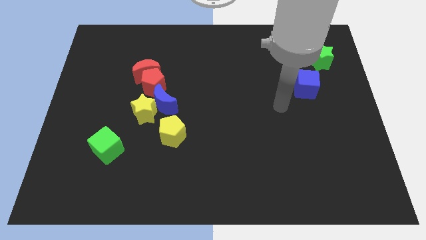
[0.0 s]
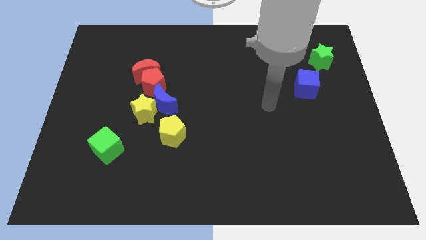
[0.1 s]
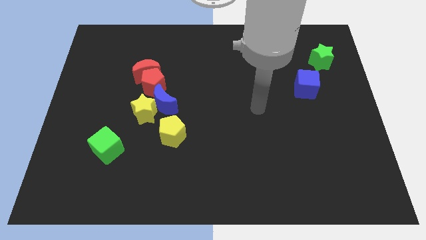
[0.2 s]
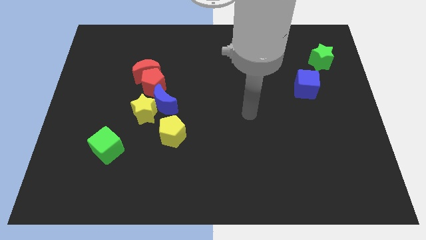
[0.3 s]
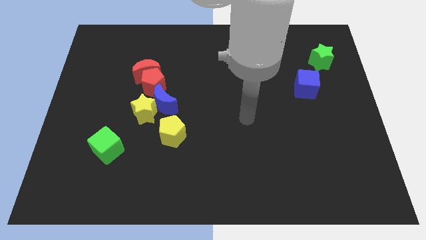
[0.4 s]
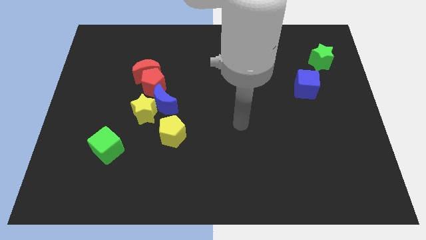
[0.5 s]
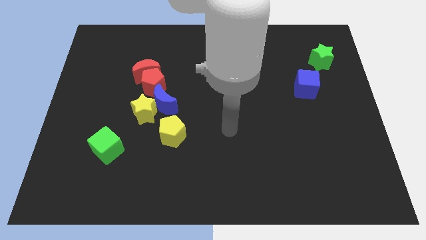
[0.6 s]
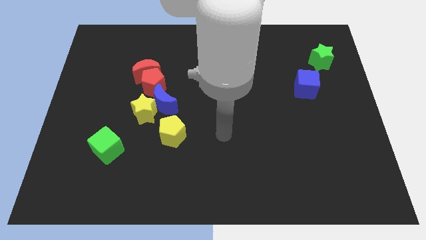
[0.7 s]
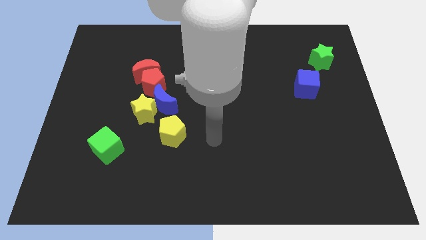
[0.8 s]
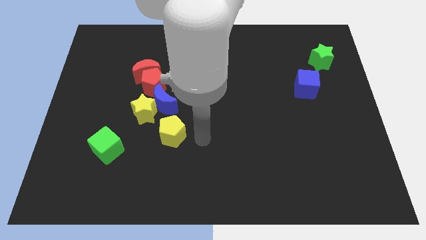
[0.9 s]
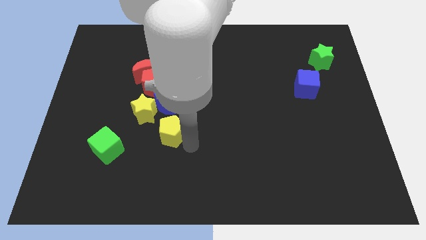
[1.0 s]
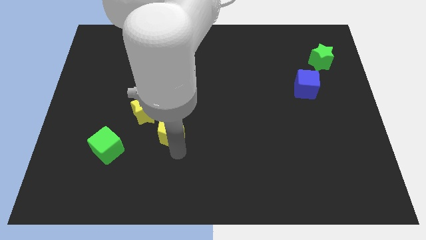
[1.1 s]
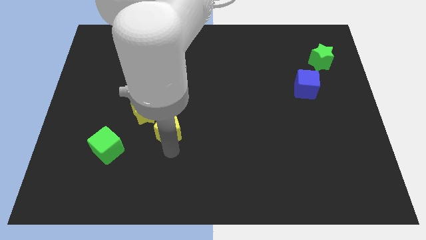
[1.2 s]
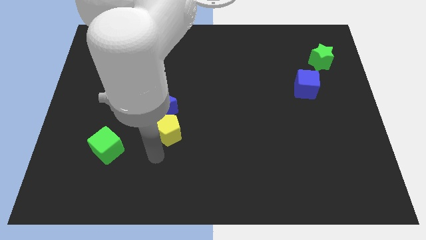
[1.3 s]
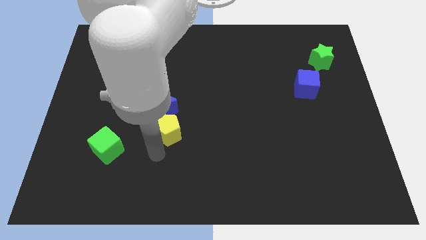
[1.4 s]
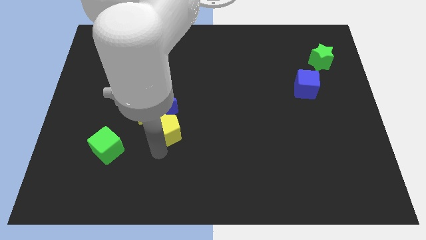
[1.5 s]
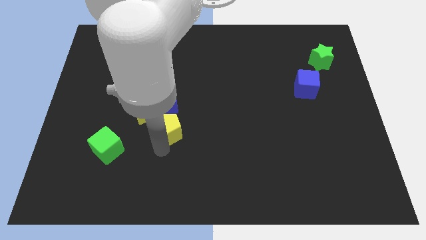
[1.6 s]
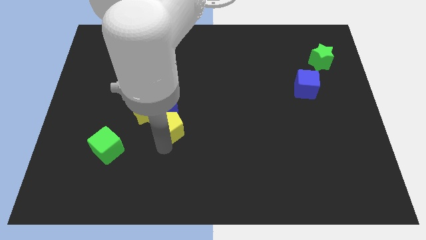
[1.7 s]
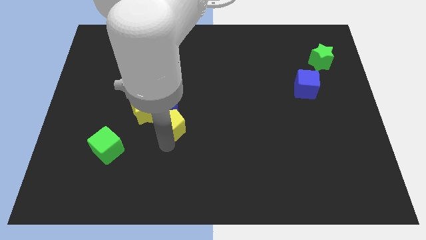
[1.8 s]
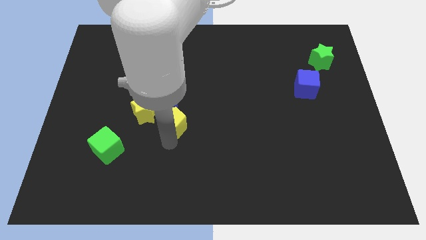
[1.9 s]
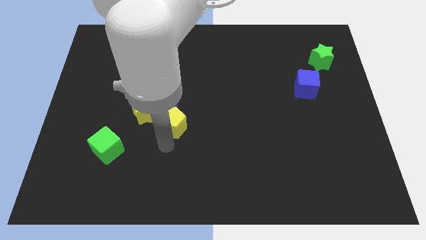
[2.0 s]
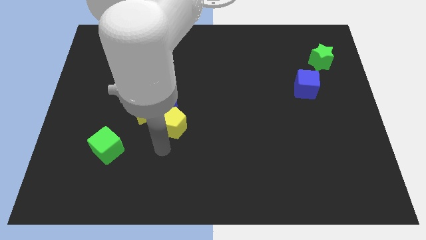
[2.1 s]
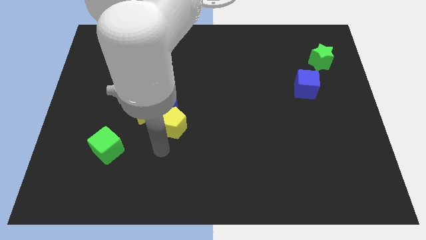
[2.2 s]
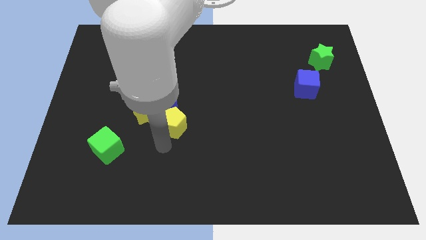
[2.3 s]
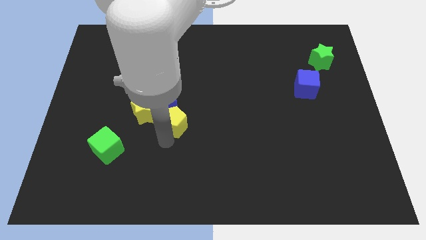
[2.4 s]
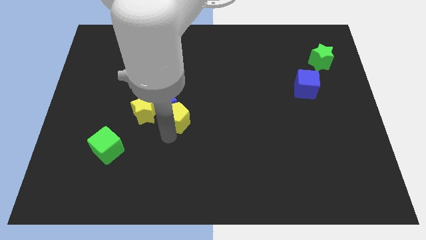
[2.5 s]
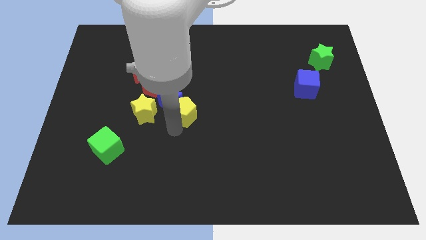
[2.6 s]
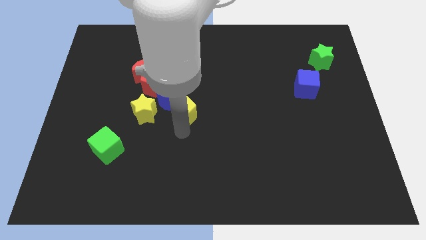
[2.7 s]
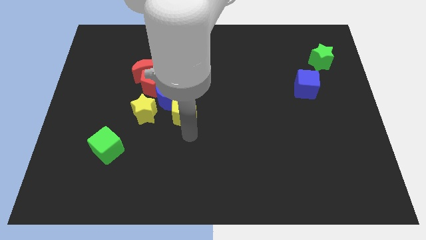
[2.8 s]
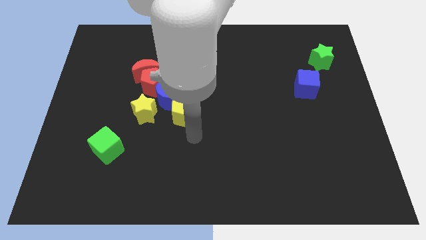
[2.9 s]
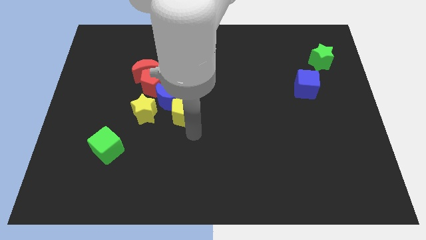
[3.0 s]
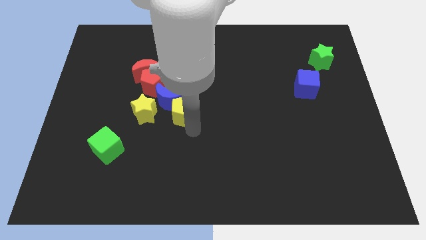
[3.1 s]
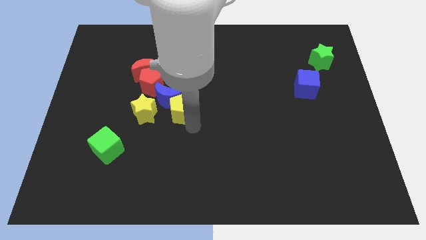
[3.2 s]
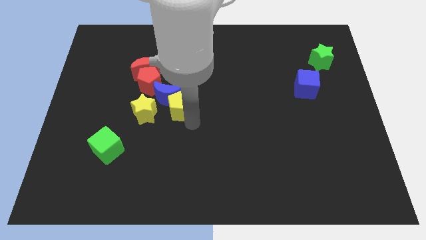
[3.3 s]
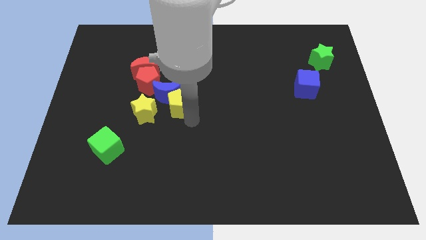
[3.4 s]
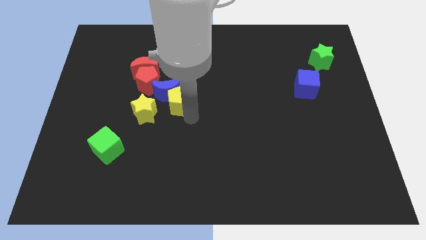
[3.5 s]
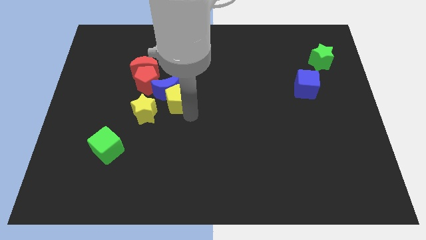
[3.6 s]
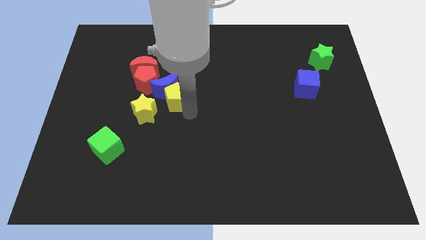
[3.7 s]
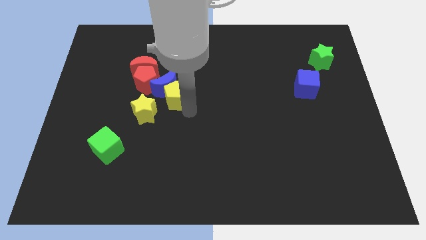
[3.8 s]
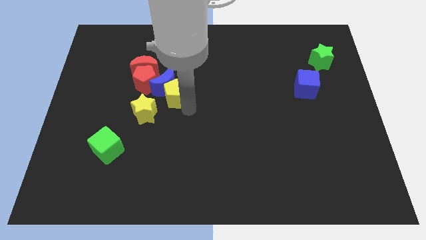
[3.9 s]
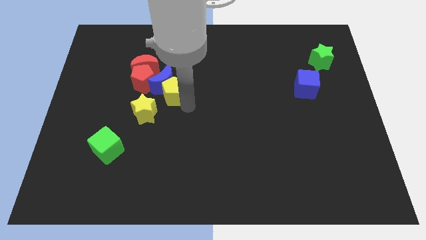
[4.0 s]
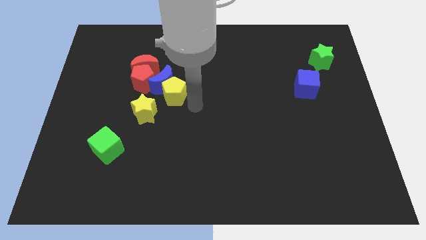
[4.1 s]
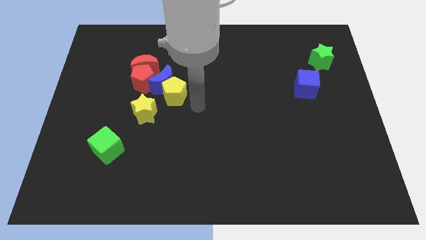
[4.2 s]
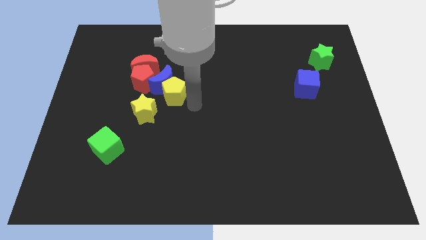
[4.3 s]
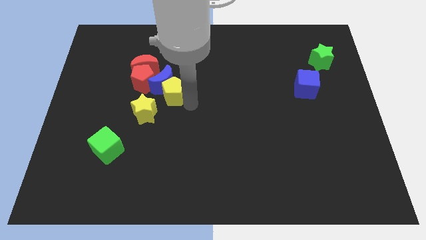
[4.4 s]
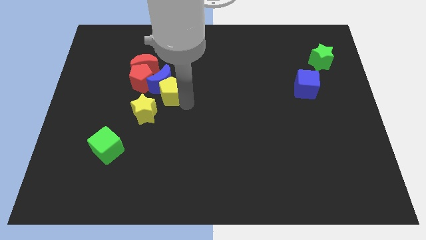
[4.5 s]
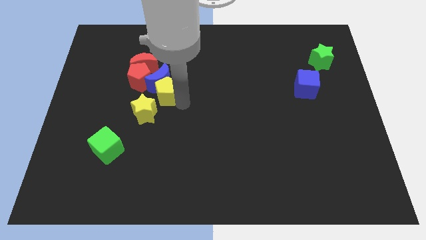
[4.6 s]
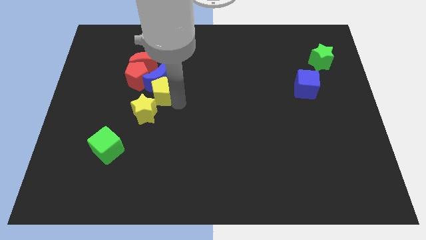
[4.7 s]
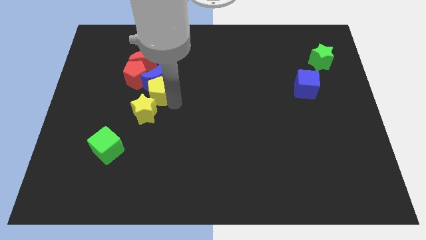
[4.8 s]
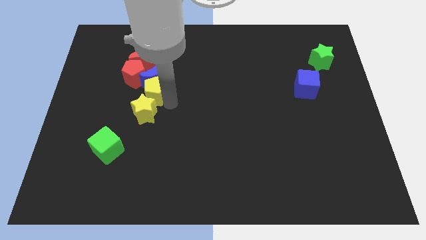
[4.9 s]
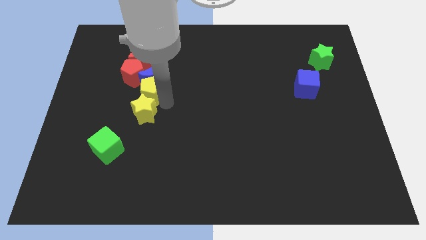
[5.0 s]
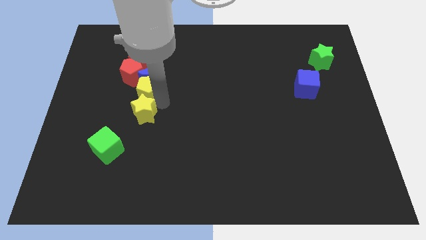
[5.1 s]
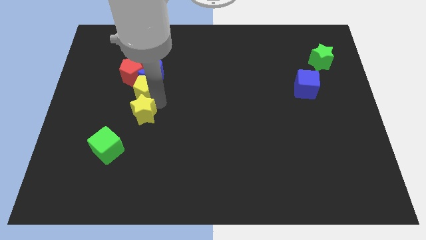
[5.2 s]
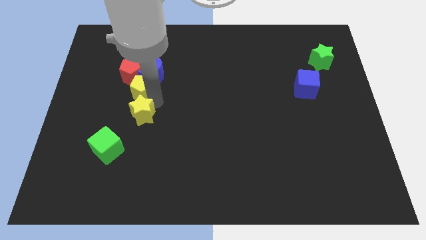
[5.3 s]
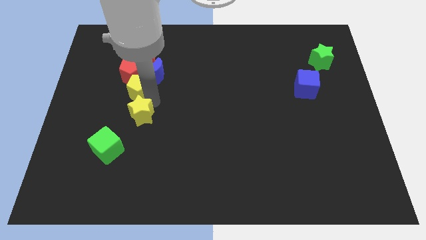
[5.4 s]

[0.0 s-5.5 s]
put the yellow pentagon to the red pentagon

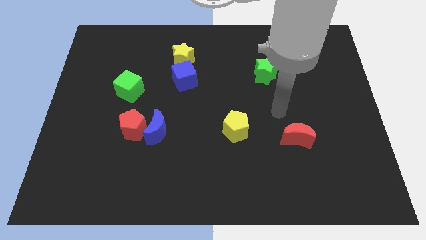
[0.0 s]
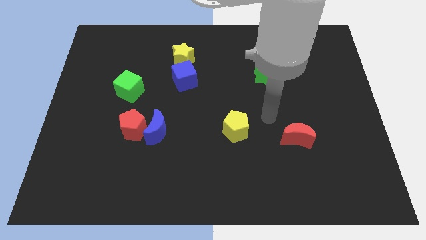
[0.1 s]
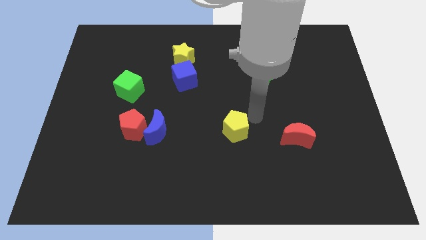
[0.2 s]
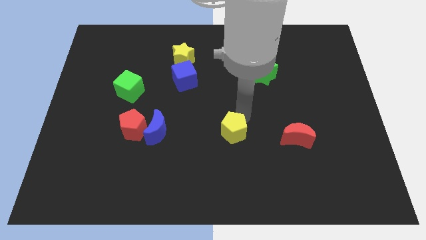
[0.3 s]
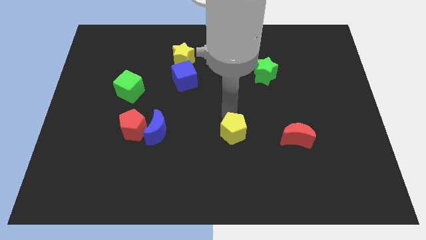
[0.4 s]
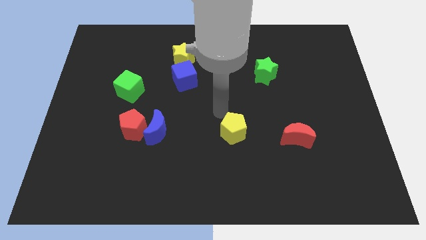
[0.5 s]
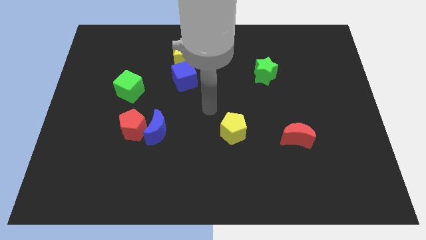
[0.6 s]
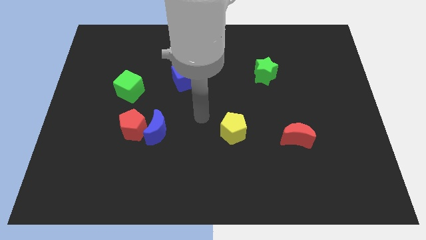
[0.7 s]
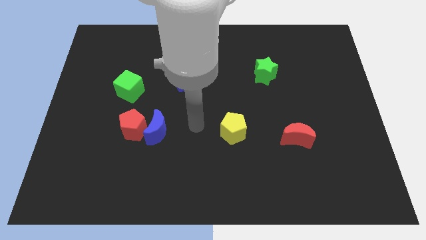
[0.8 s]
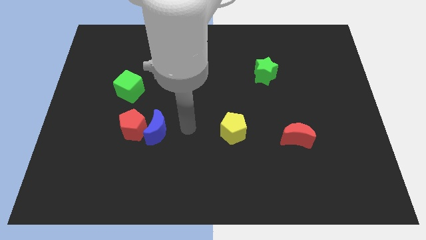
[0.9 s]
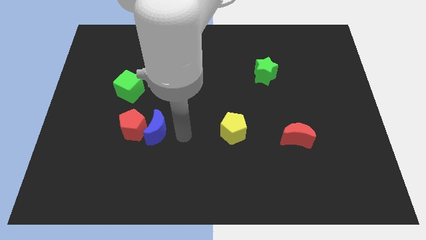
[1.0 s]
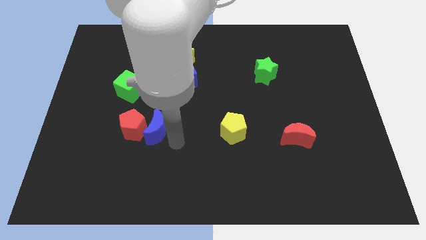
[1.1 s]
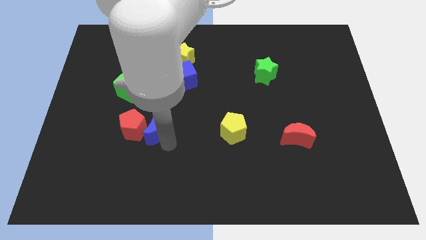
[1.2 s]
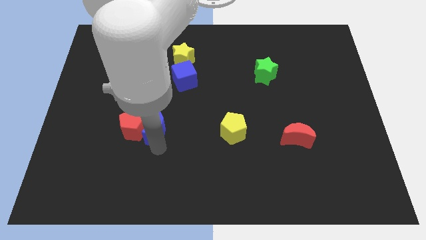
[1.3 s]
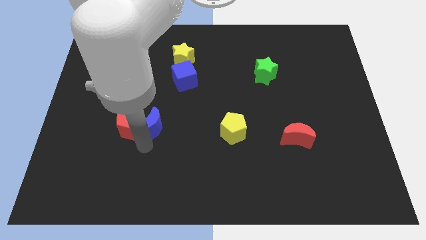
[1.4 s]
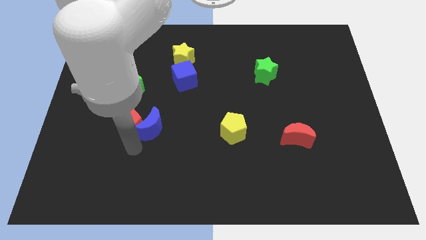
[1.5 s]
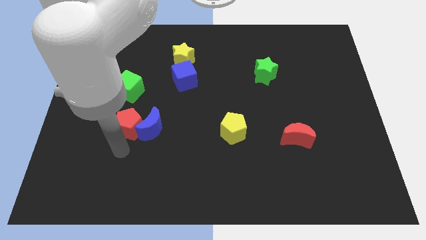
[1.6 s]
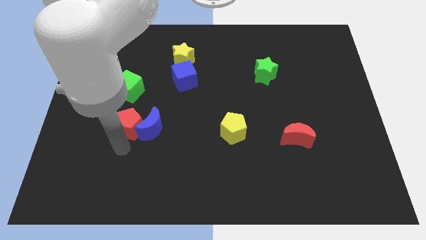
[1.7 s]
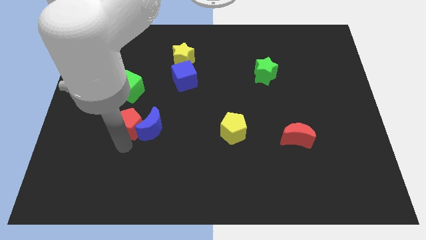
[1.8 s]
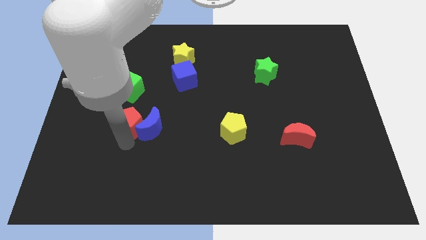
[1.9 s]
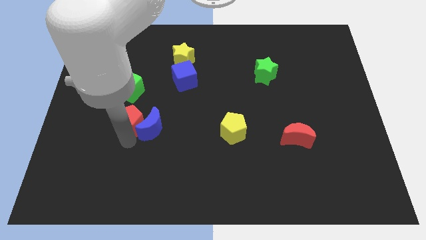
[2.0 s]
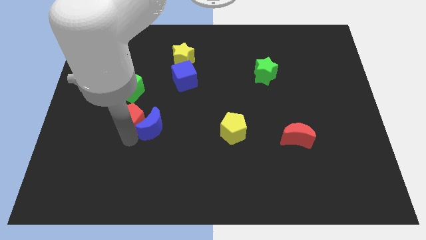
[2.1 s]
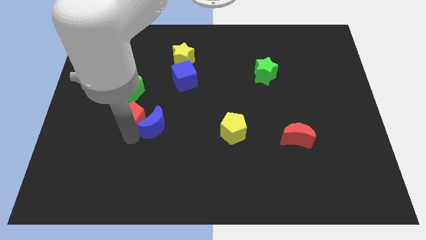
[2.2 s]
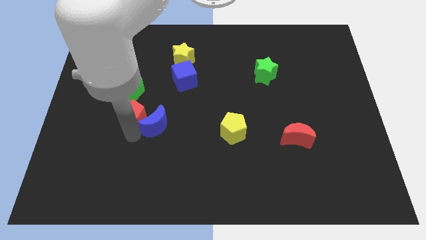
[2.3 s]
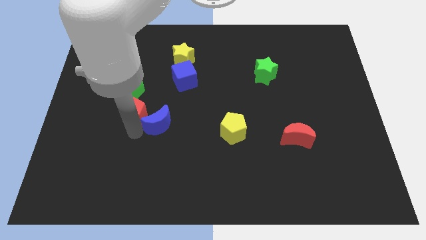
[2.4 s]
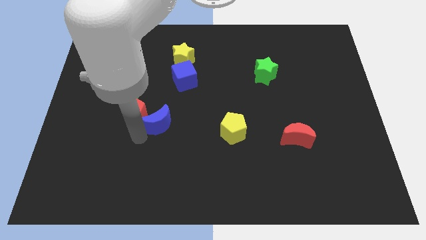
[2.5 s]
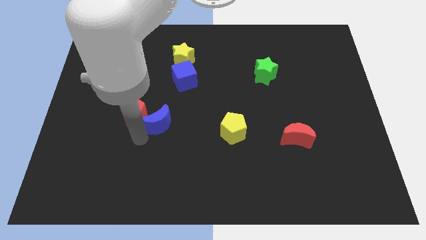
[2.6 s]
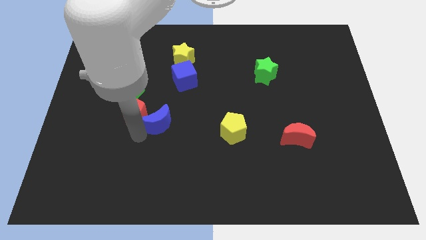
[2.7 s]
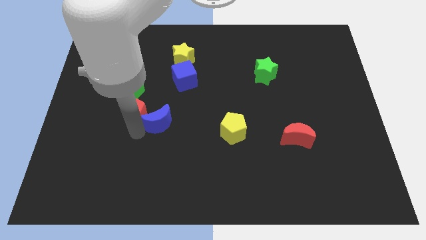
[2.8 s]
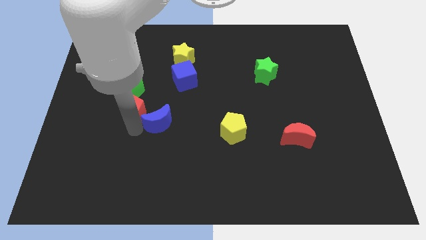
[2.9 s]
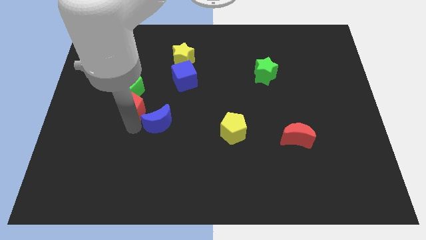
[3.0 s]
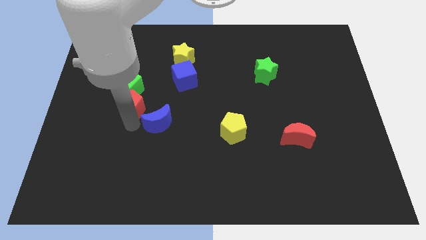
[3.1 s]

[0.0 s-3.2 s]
move the red pentagon towards the green cube
